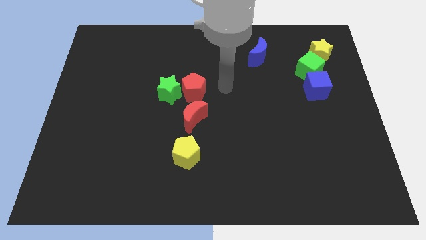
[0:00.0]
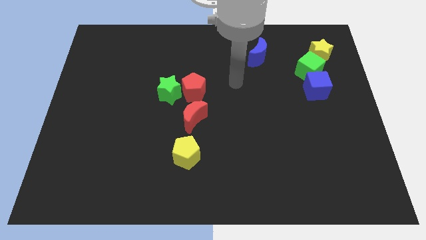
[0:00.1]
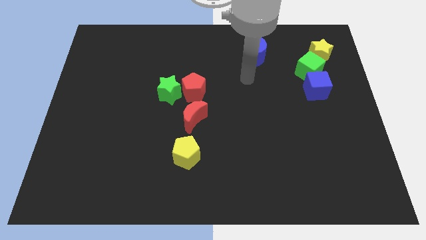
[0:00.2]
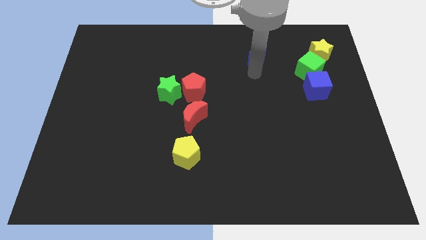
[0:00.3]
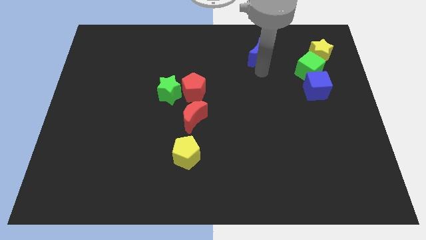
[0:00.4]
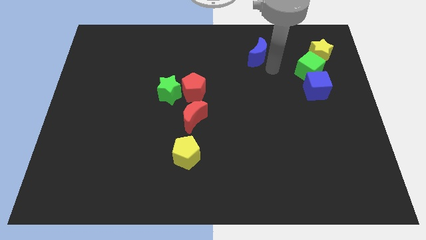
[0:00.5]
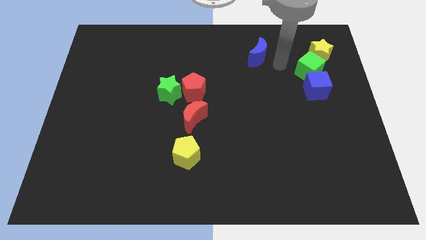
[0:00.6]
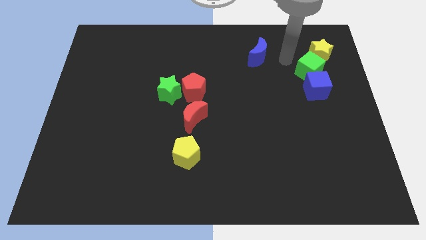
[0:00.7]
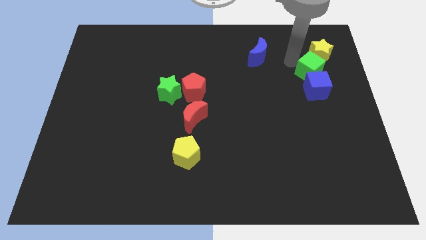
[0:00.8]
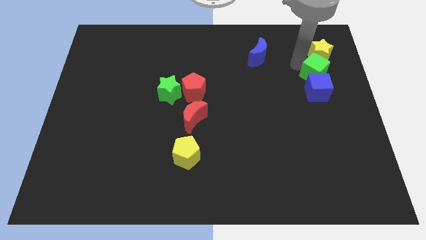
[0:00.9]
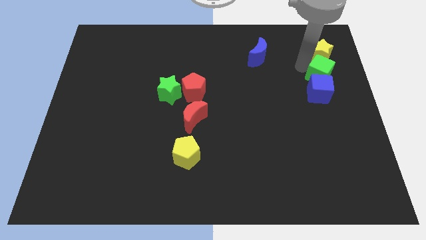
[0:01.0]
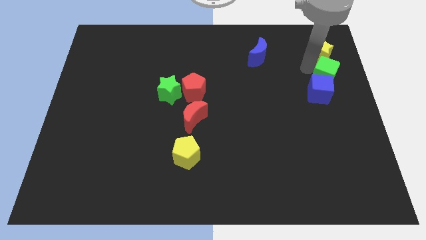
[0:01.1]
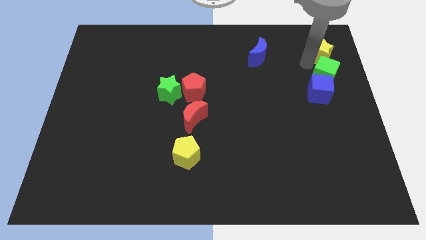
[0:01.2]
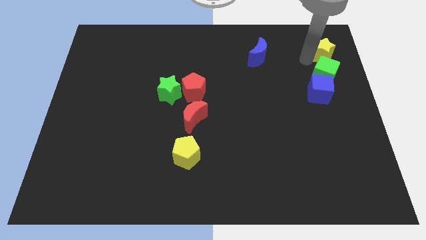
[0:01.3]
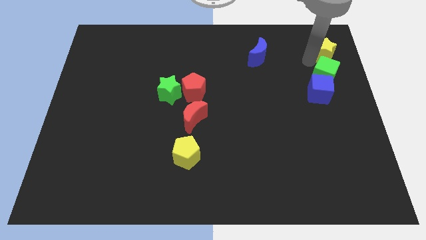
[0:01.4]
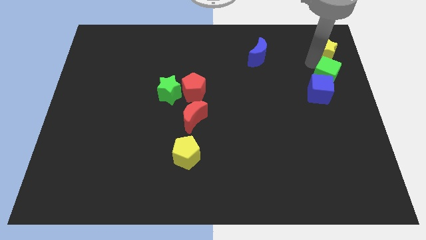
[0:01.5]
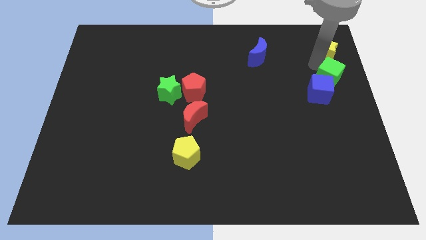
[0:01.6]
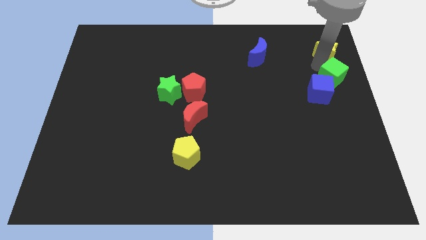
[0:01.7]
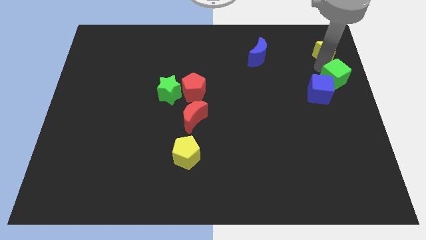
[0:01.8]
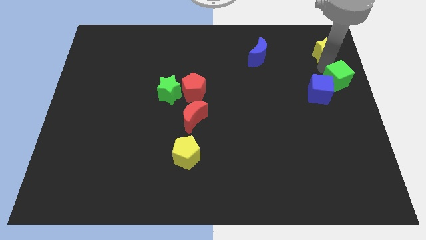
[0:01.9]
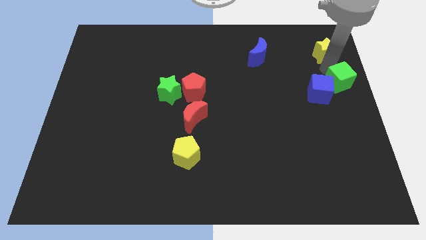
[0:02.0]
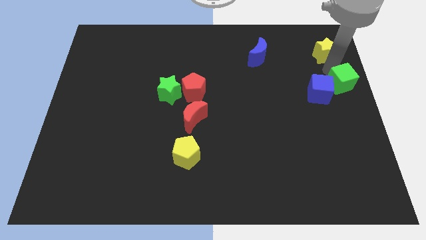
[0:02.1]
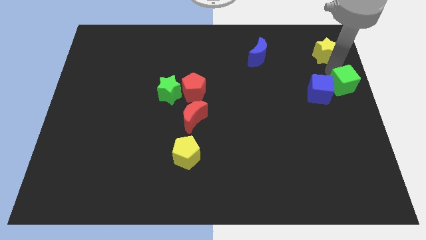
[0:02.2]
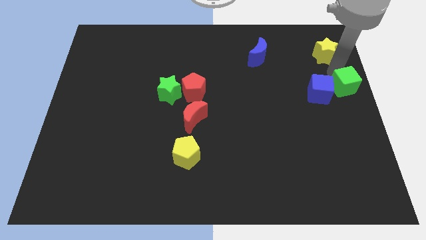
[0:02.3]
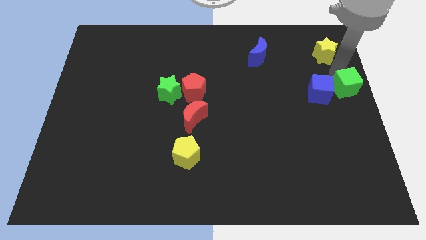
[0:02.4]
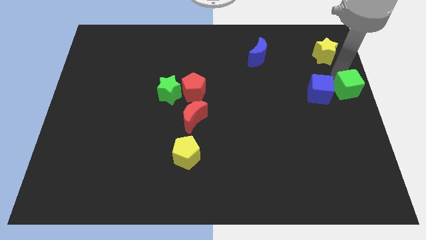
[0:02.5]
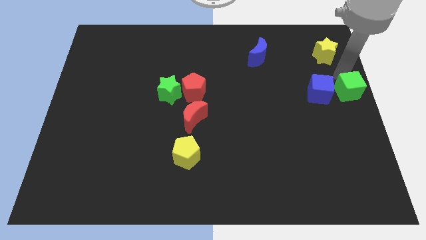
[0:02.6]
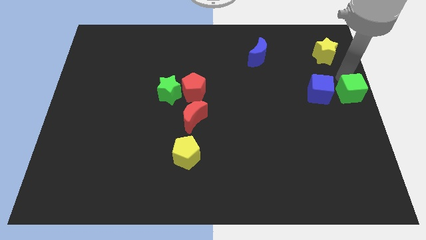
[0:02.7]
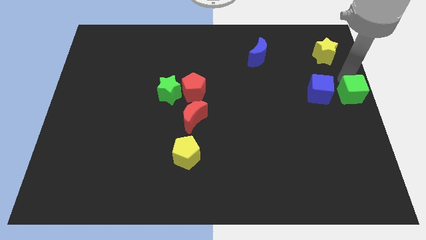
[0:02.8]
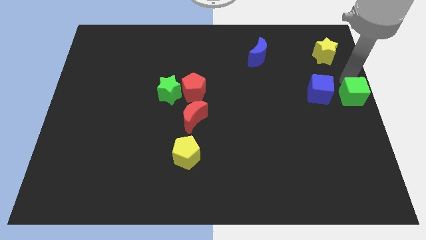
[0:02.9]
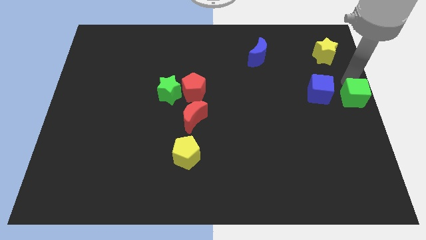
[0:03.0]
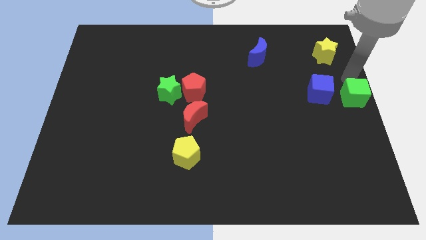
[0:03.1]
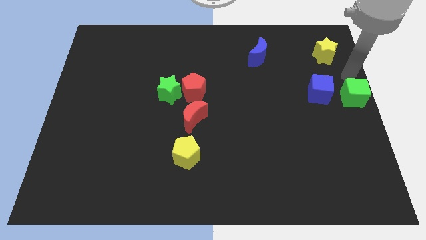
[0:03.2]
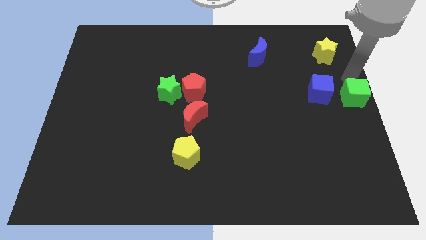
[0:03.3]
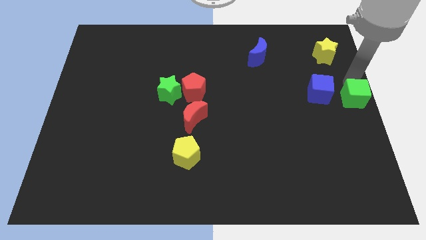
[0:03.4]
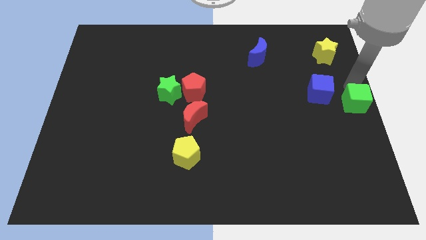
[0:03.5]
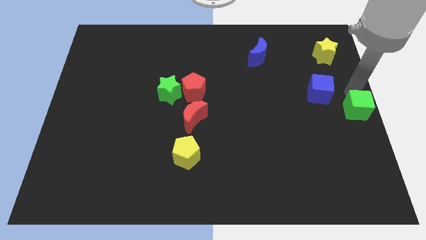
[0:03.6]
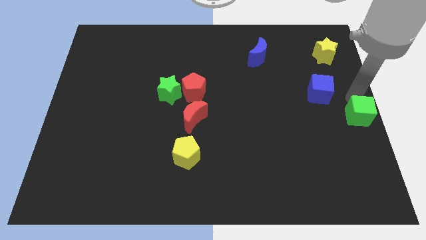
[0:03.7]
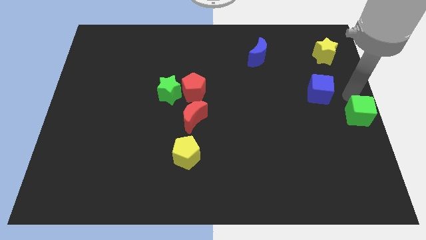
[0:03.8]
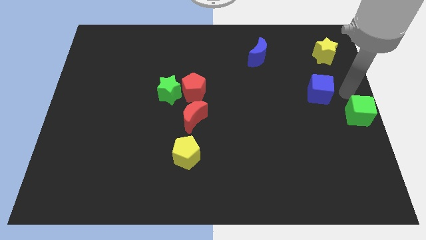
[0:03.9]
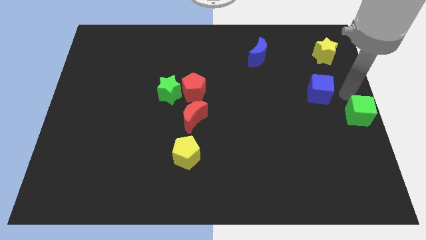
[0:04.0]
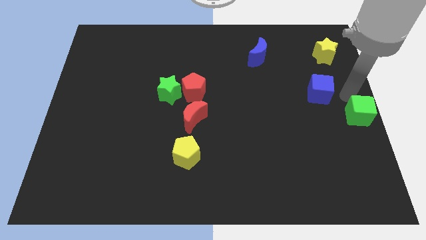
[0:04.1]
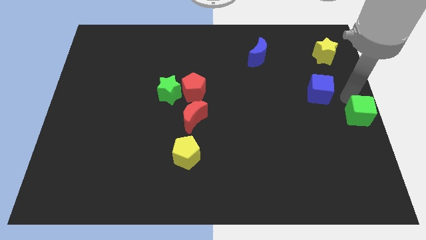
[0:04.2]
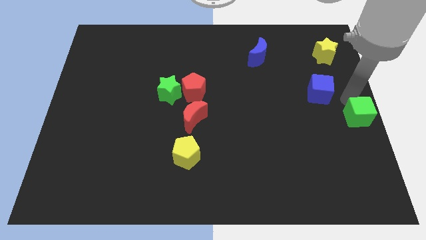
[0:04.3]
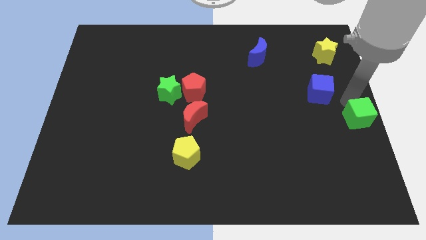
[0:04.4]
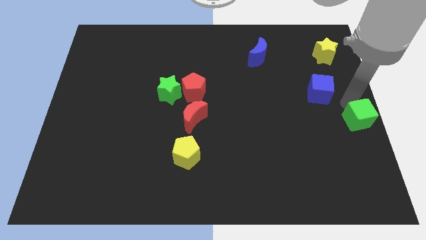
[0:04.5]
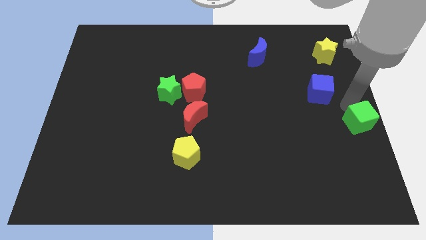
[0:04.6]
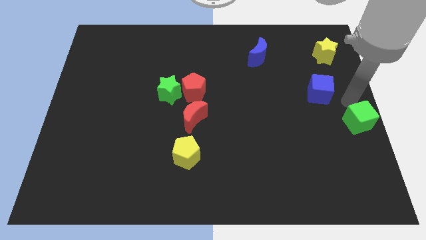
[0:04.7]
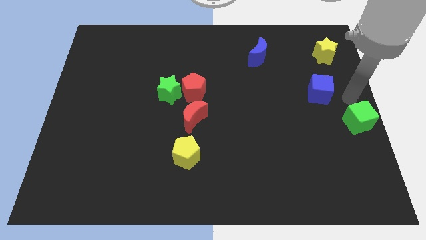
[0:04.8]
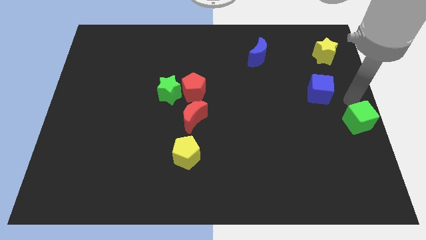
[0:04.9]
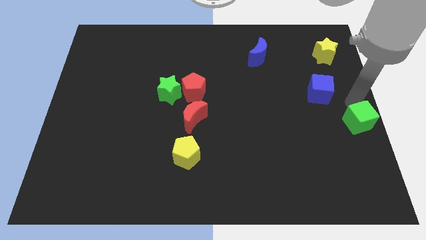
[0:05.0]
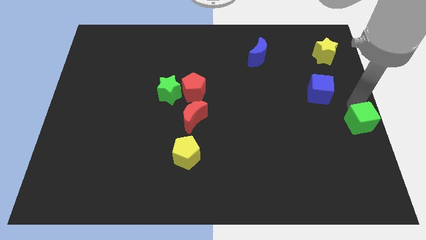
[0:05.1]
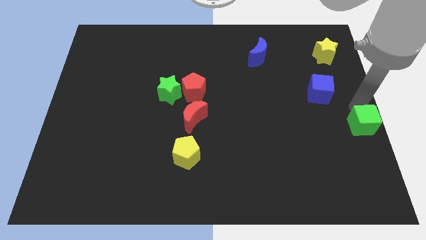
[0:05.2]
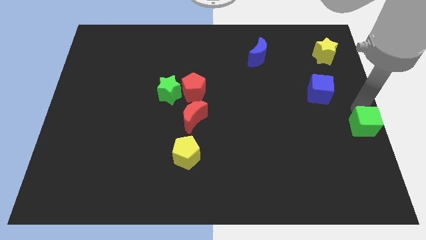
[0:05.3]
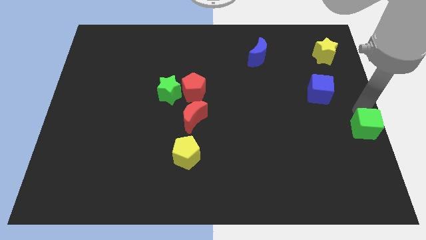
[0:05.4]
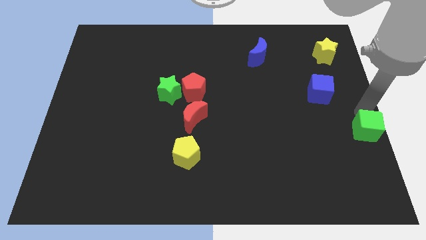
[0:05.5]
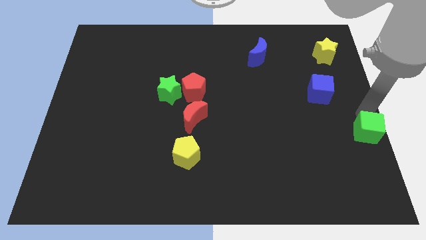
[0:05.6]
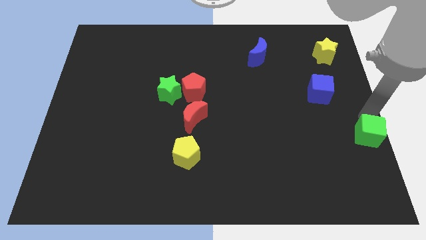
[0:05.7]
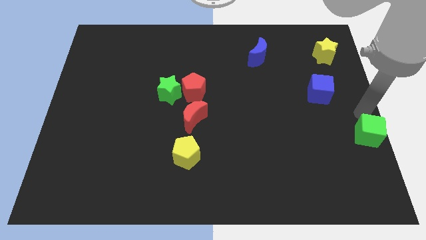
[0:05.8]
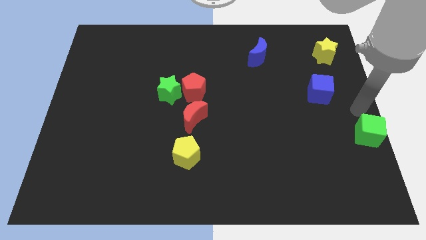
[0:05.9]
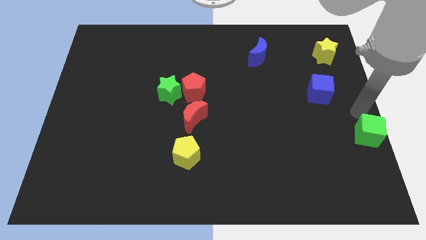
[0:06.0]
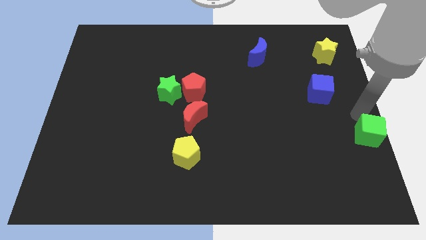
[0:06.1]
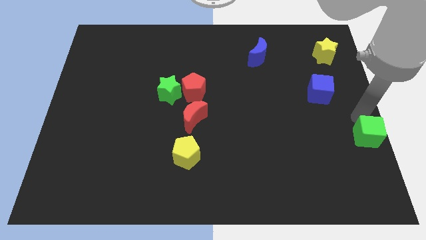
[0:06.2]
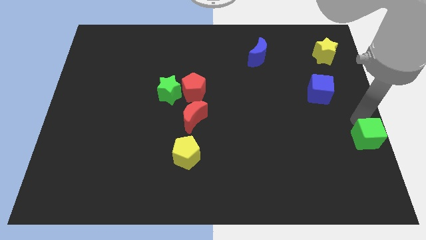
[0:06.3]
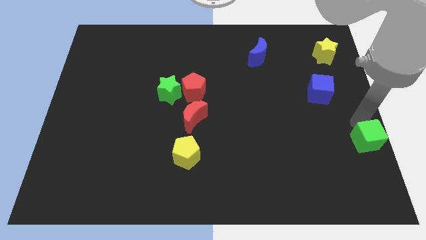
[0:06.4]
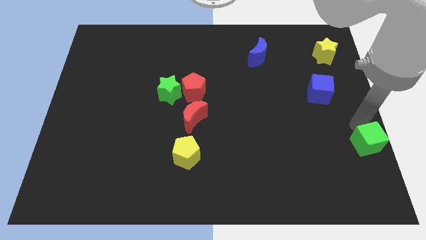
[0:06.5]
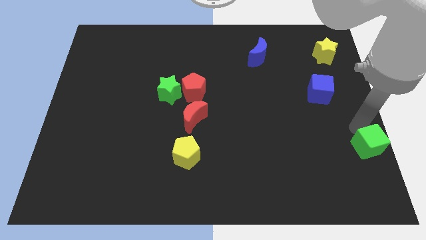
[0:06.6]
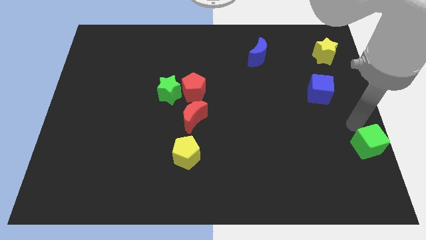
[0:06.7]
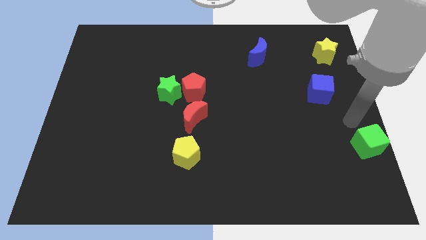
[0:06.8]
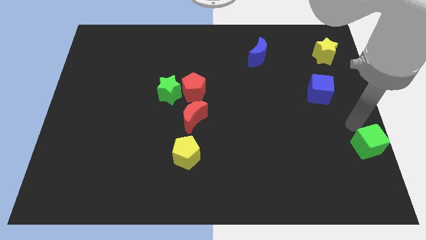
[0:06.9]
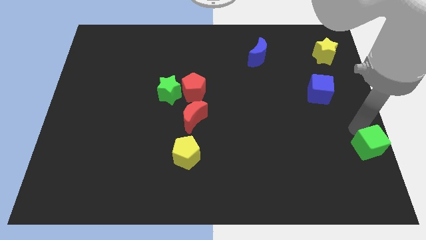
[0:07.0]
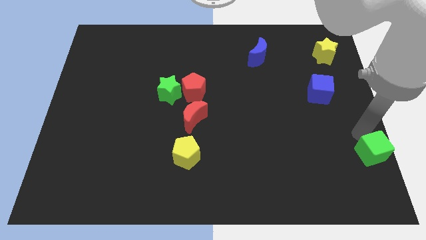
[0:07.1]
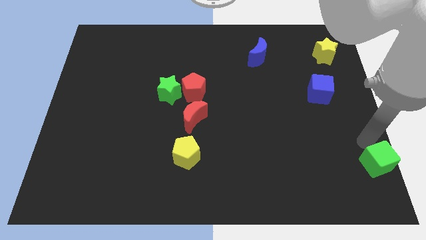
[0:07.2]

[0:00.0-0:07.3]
slide the green cube to the bottom right
